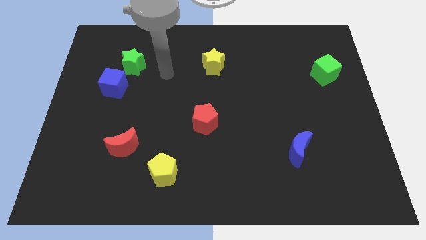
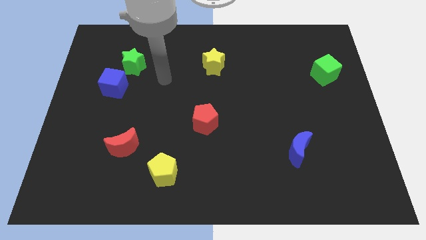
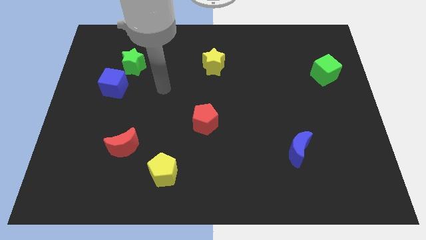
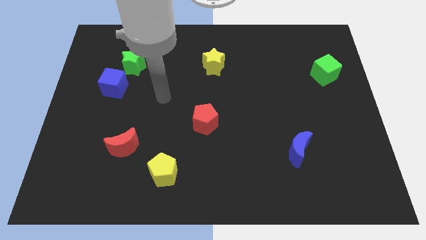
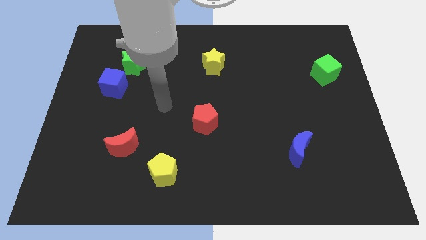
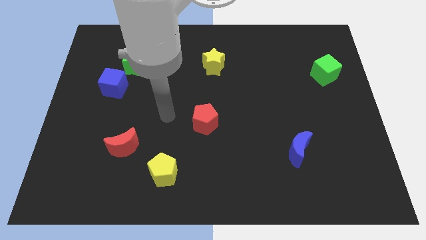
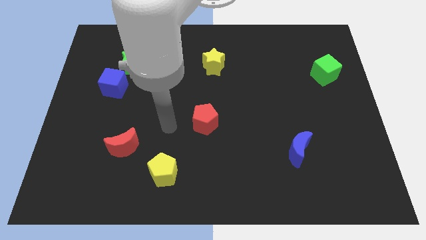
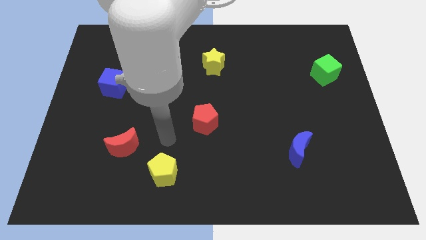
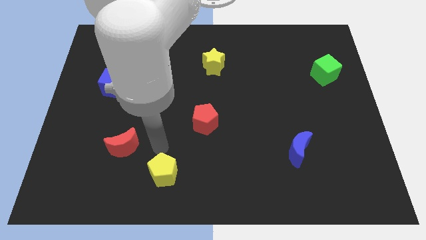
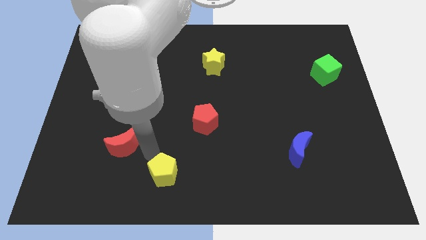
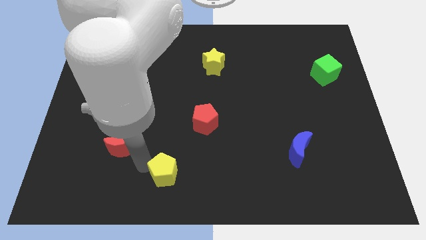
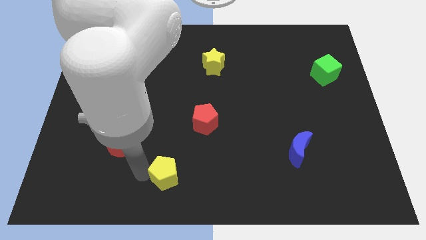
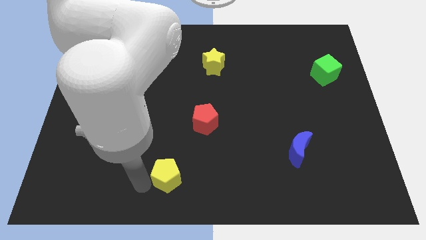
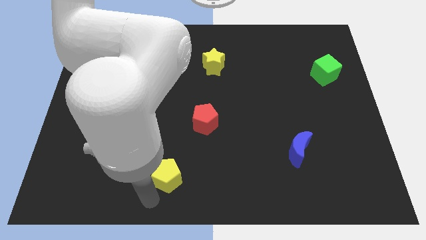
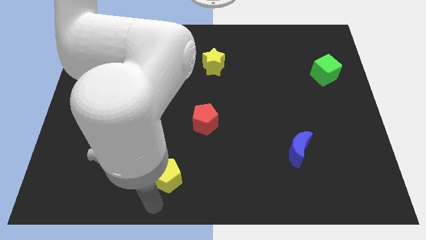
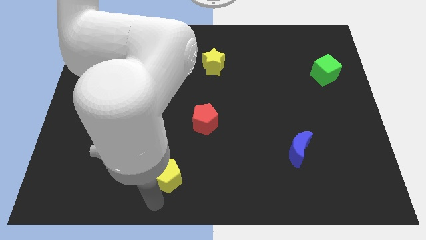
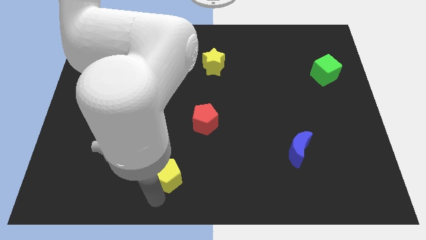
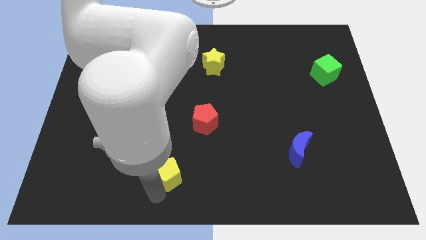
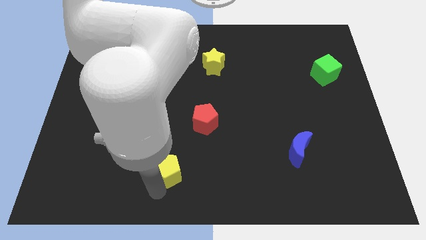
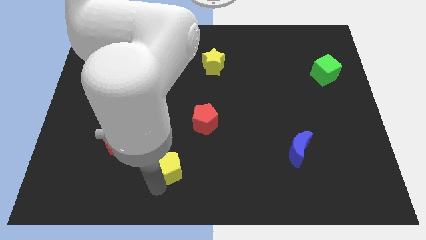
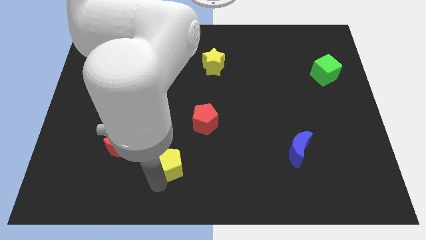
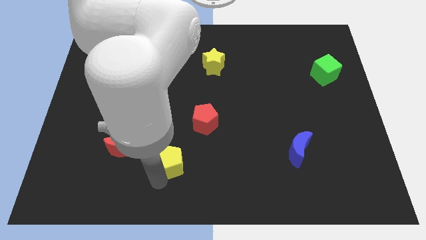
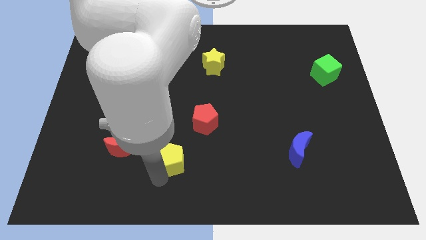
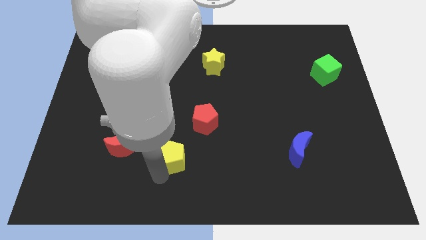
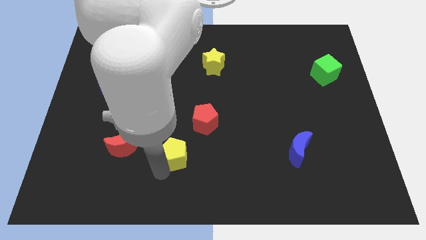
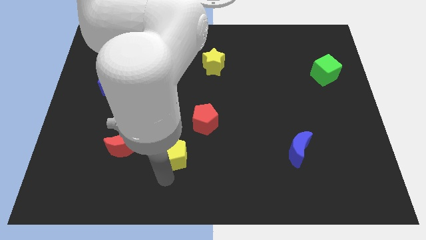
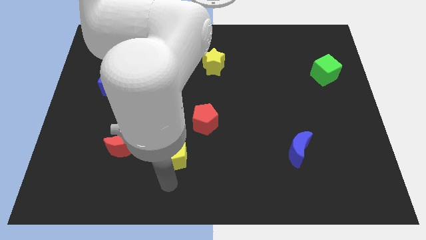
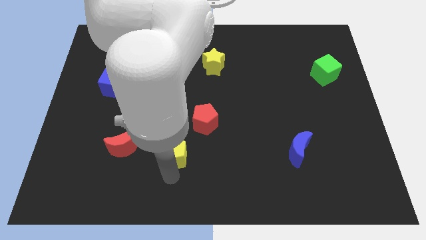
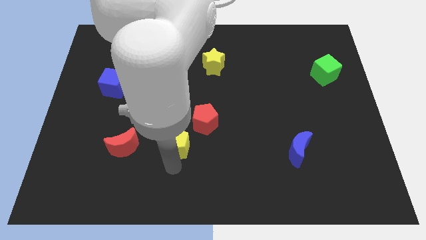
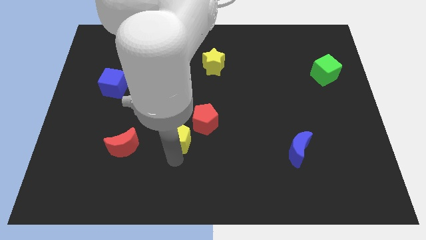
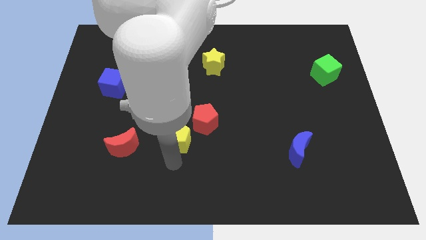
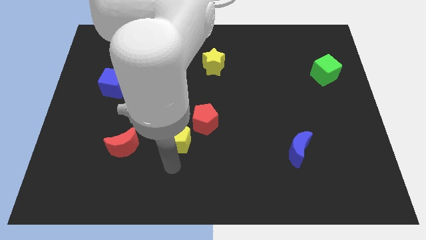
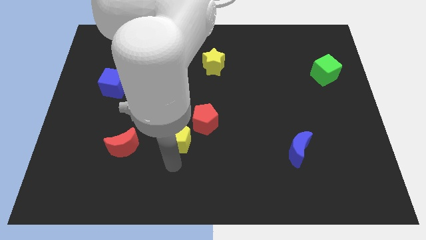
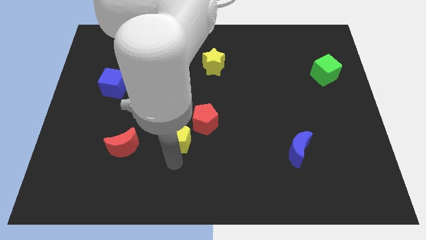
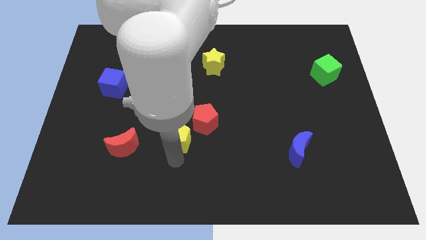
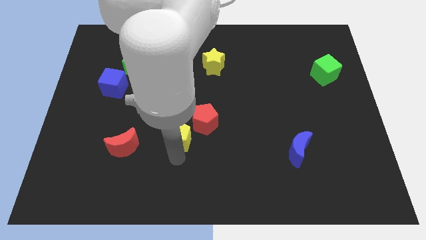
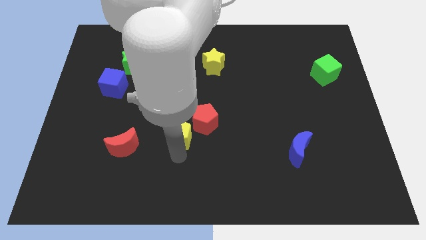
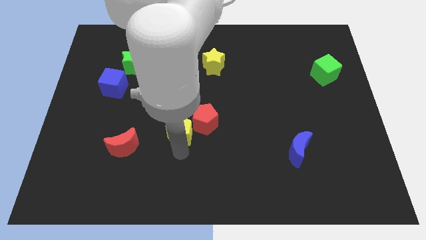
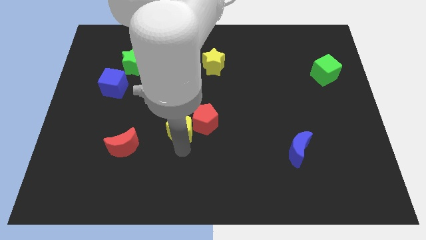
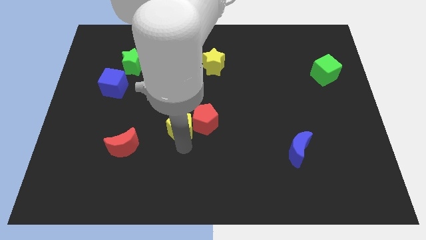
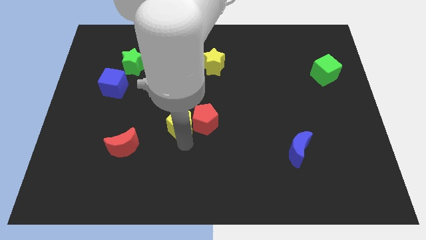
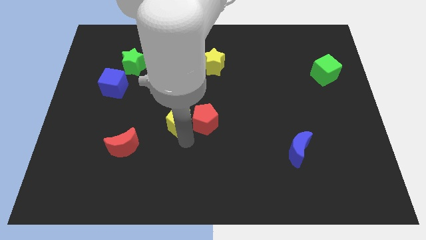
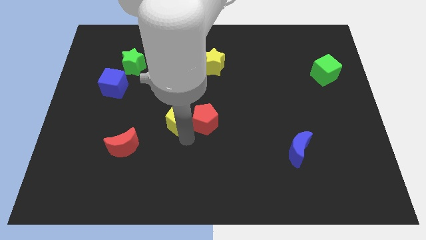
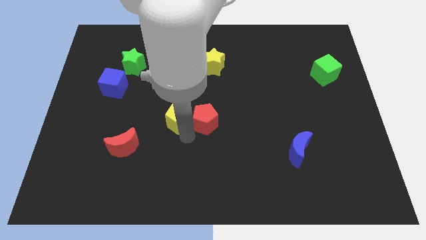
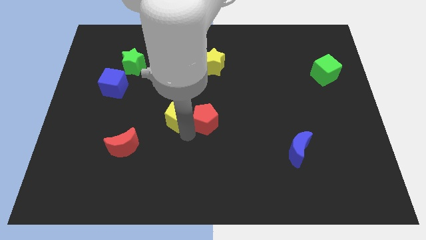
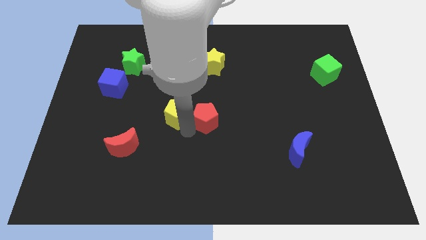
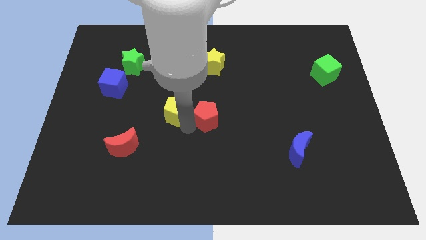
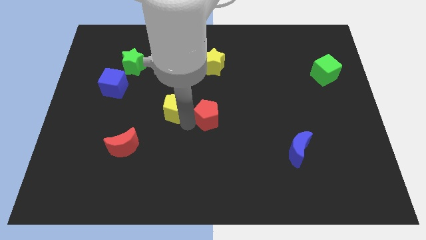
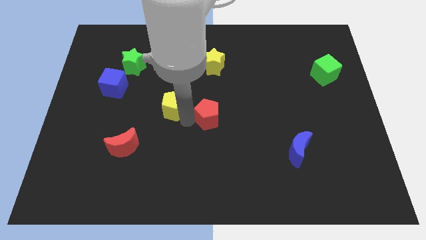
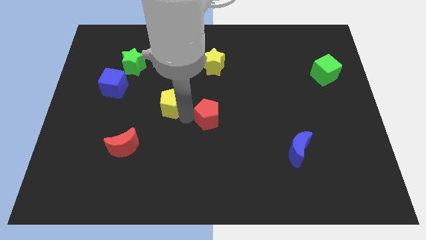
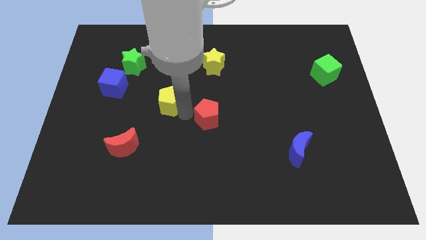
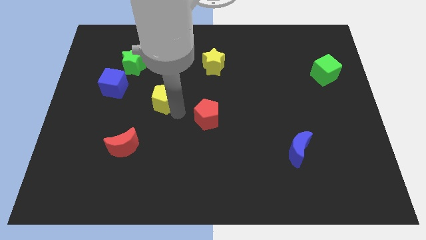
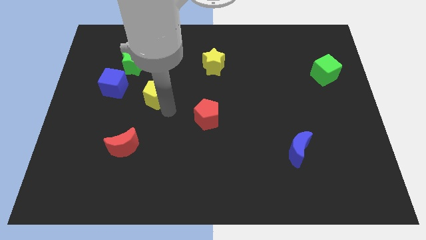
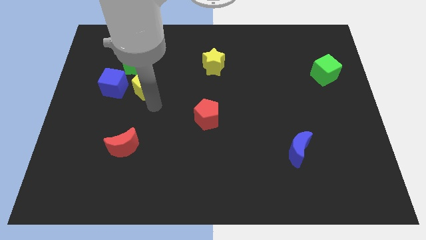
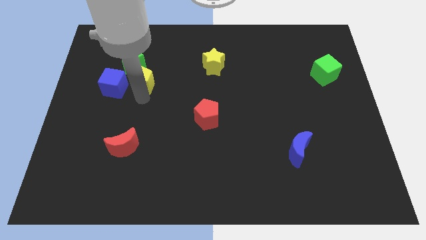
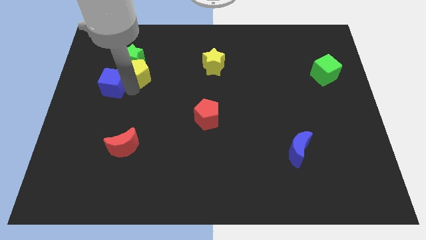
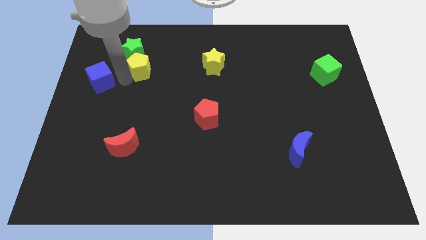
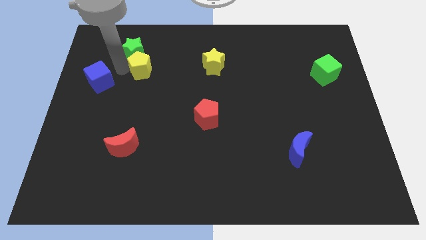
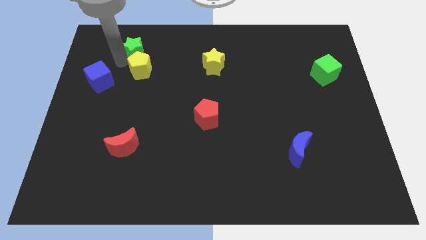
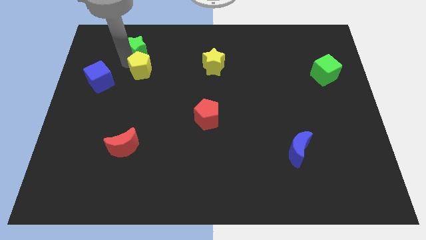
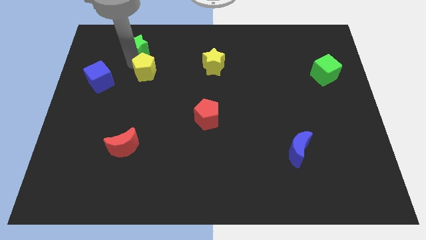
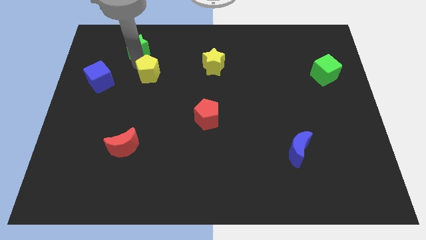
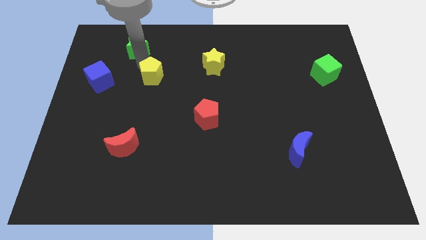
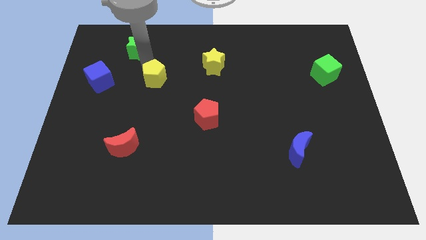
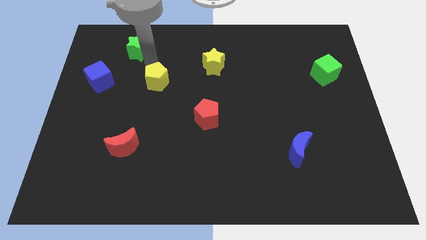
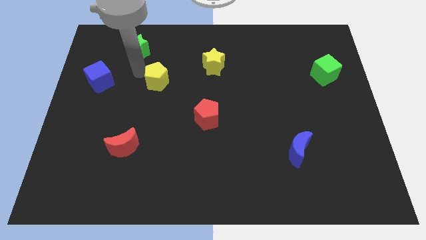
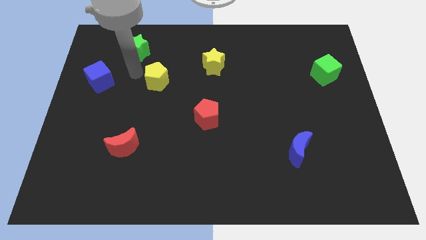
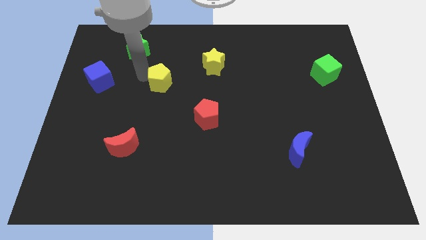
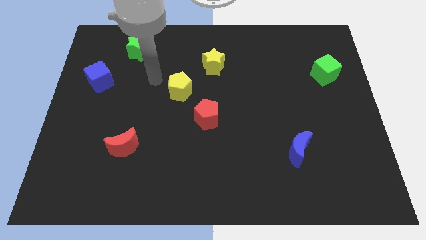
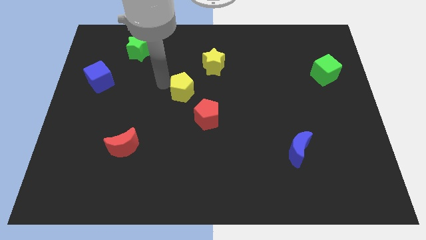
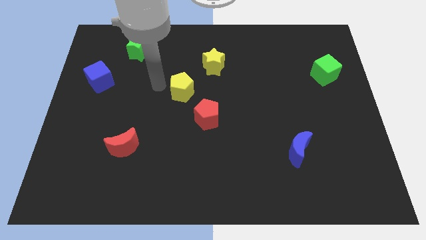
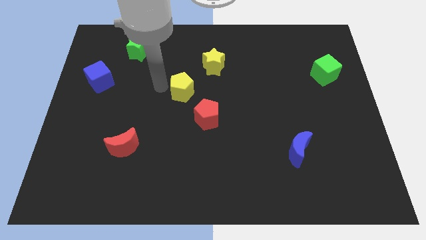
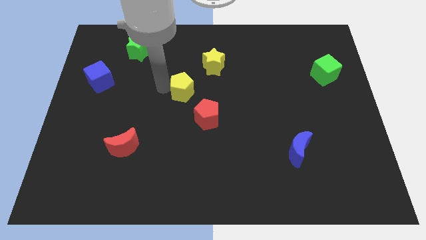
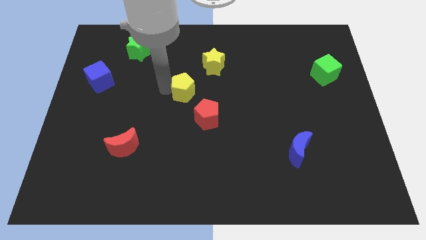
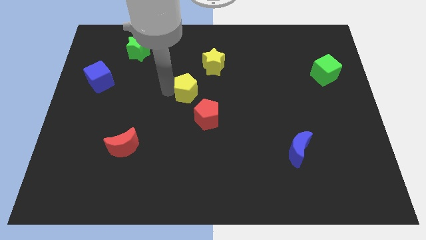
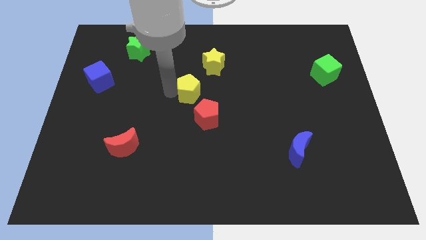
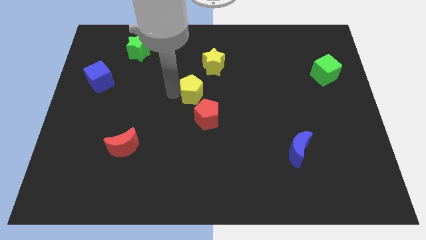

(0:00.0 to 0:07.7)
push the yellow pentagon to the bottom of the yellow star
